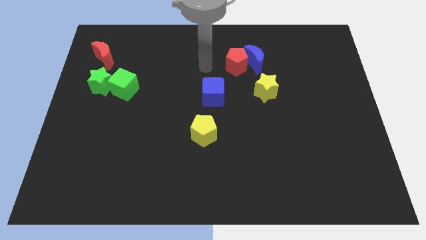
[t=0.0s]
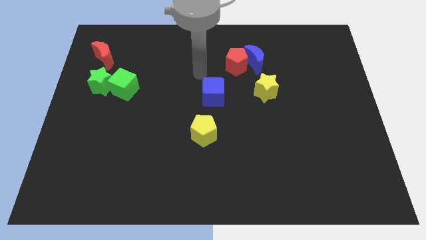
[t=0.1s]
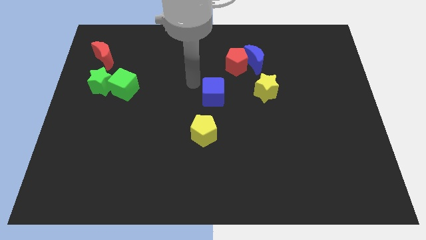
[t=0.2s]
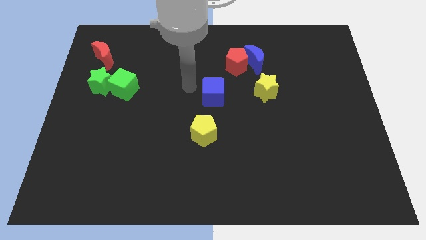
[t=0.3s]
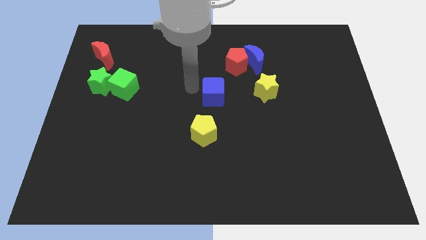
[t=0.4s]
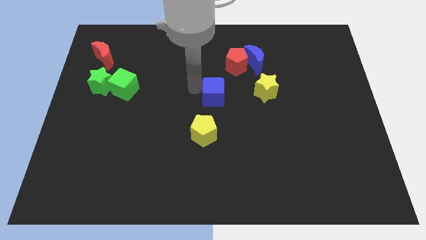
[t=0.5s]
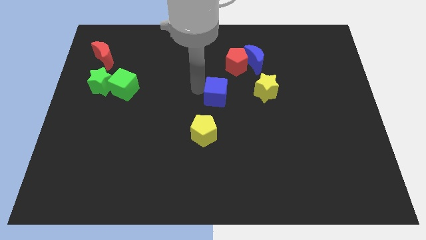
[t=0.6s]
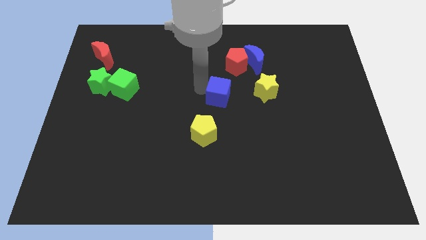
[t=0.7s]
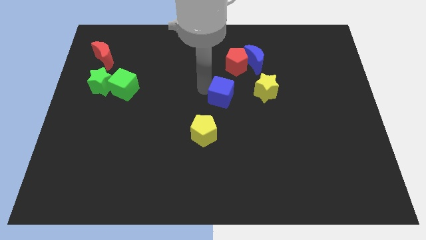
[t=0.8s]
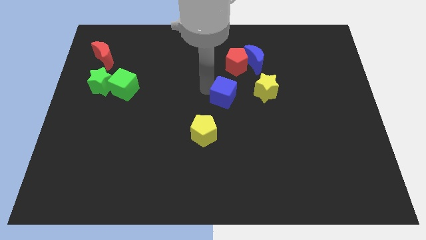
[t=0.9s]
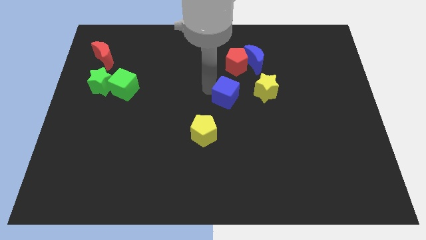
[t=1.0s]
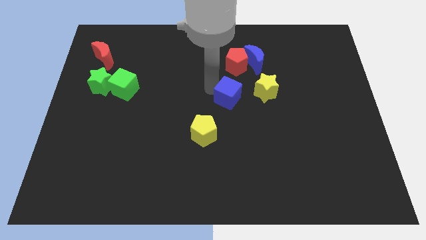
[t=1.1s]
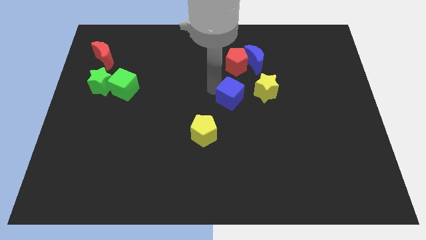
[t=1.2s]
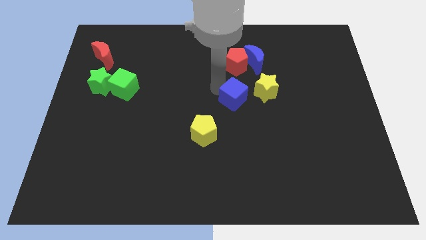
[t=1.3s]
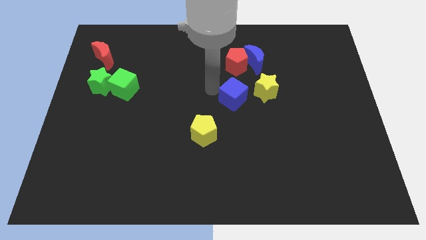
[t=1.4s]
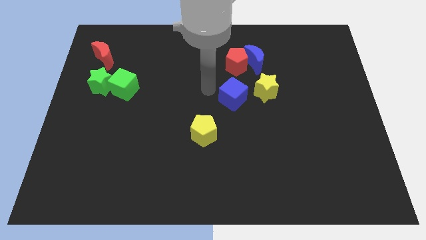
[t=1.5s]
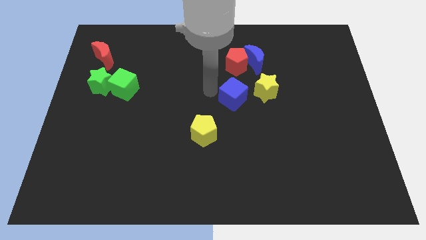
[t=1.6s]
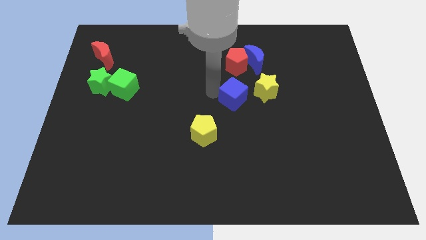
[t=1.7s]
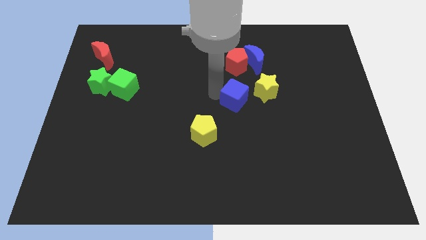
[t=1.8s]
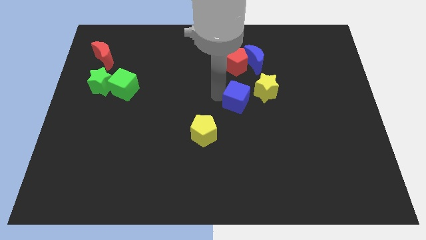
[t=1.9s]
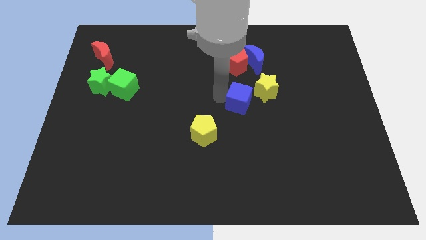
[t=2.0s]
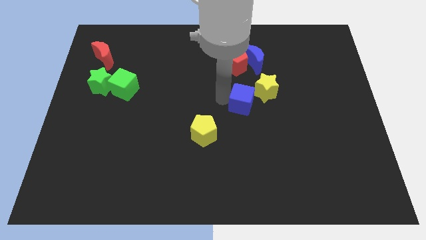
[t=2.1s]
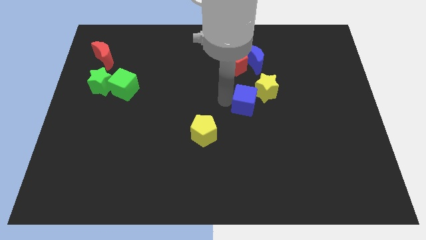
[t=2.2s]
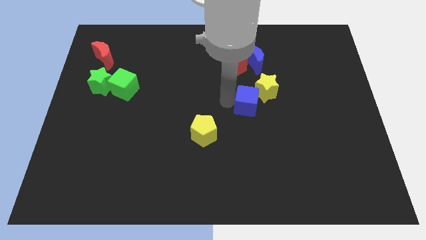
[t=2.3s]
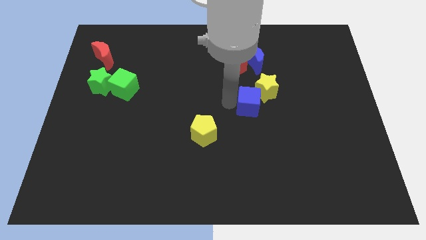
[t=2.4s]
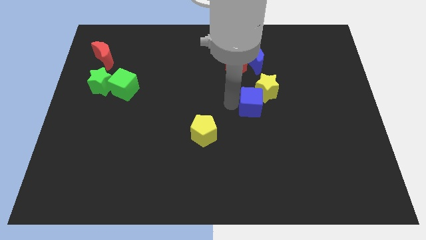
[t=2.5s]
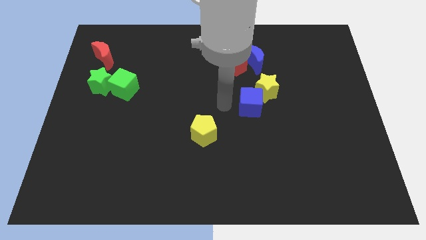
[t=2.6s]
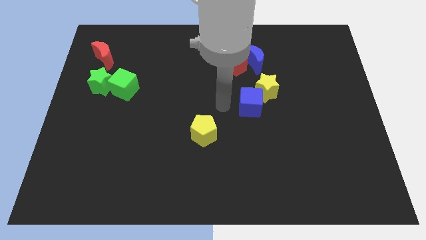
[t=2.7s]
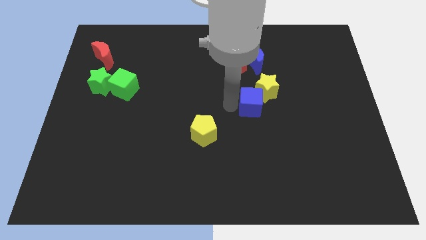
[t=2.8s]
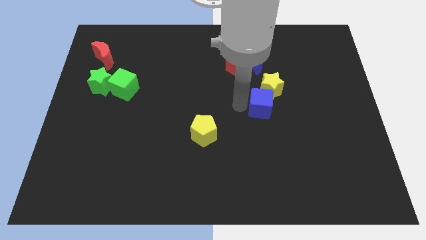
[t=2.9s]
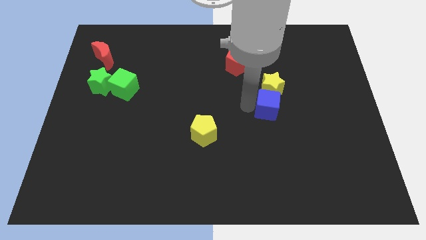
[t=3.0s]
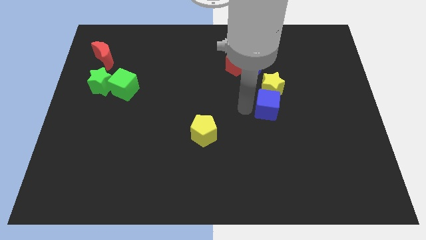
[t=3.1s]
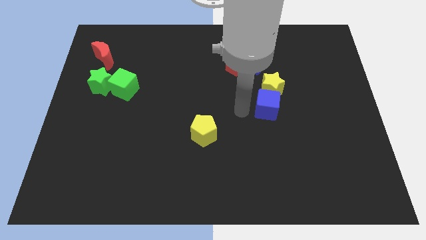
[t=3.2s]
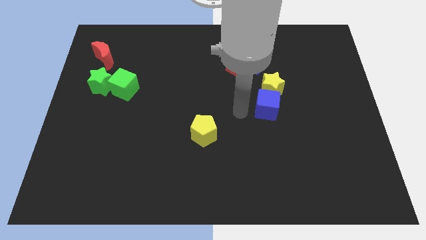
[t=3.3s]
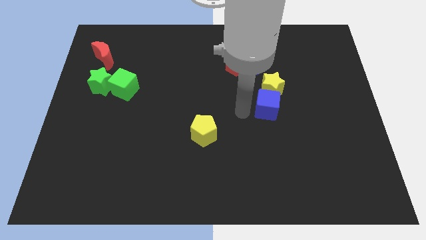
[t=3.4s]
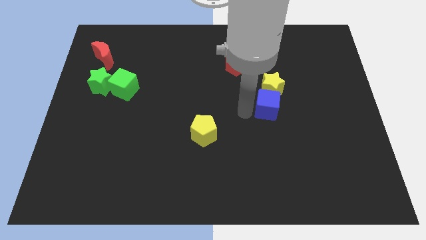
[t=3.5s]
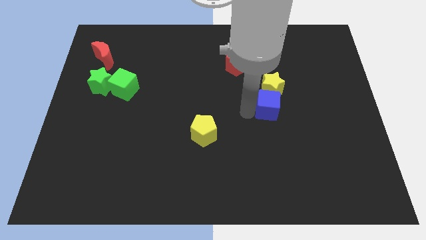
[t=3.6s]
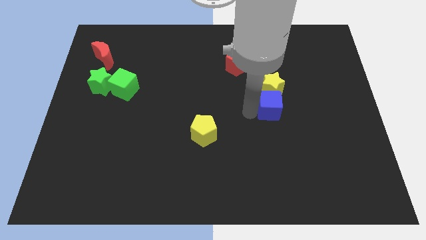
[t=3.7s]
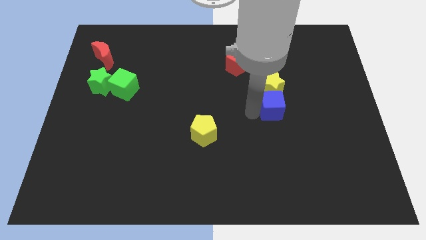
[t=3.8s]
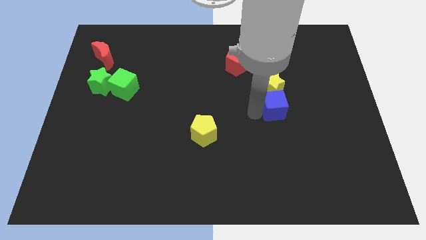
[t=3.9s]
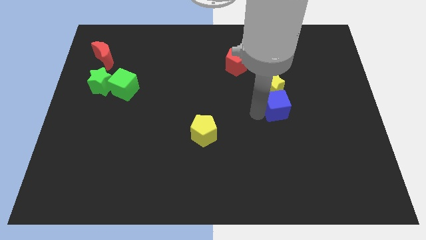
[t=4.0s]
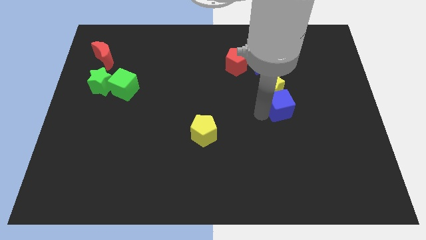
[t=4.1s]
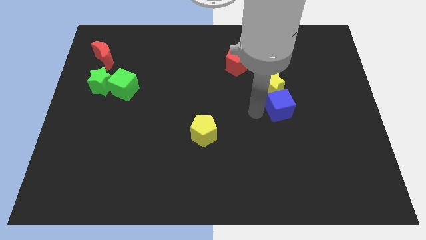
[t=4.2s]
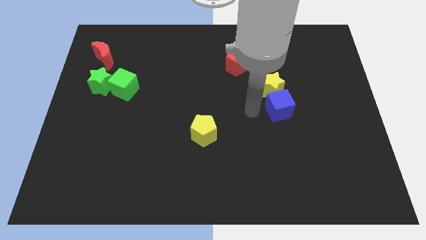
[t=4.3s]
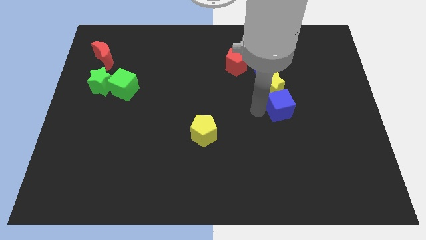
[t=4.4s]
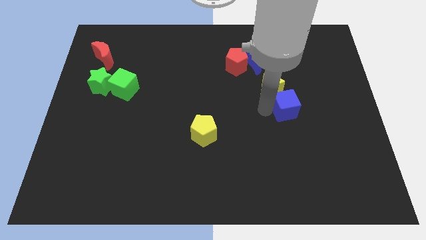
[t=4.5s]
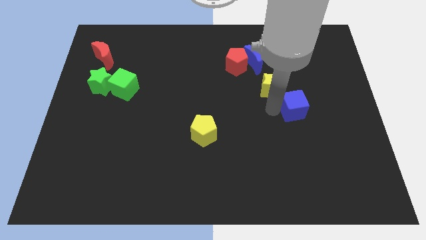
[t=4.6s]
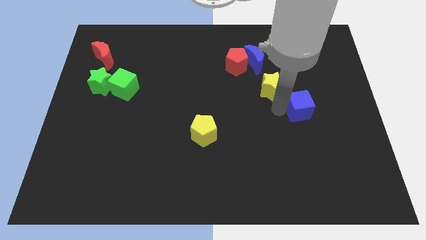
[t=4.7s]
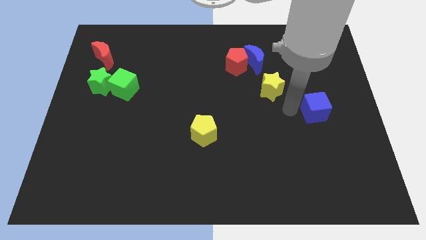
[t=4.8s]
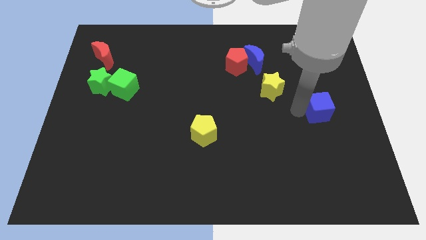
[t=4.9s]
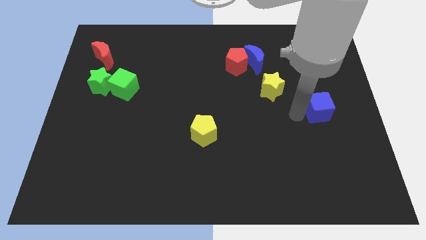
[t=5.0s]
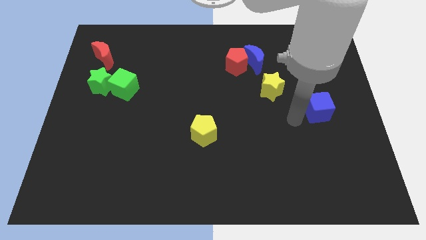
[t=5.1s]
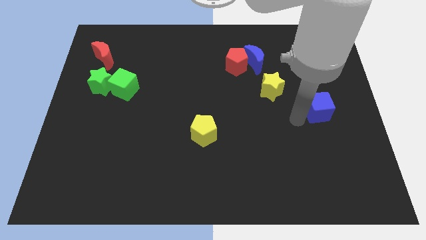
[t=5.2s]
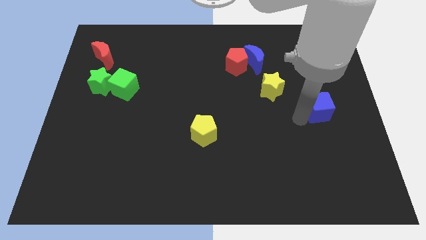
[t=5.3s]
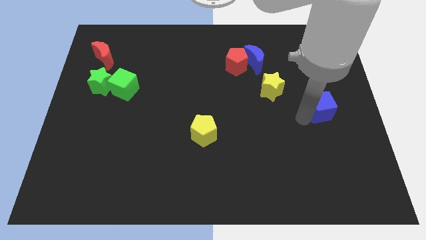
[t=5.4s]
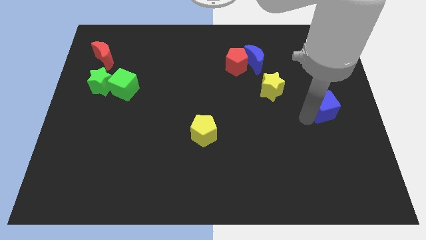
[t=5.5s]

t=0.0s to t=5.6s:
put the blue cube to the right side
